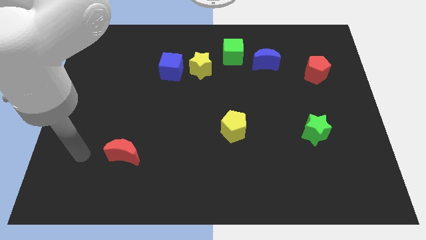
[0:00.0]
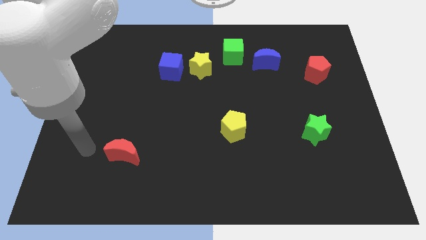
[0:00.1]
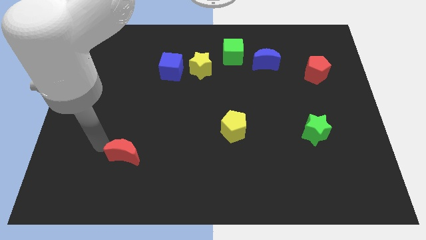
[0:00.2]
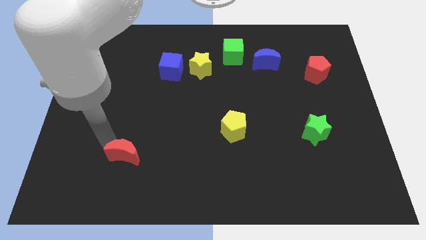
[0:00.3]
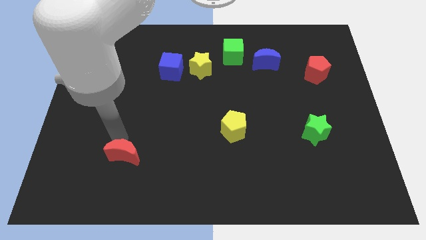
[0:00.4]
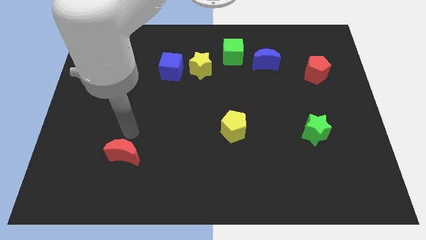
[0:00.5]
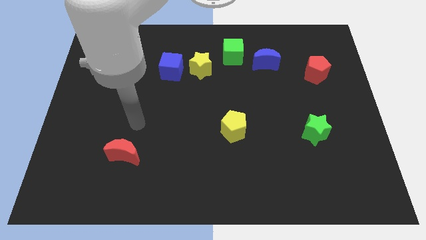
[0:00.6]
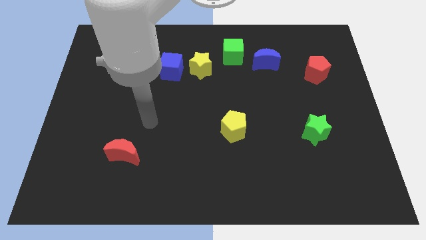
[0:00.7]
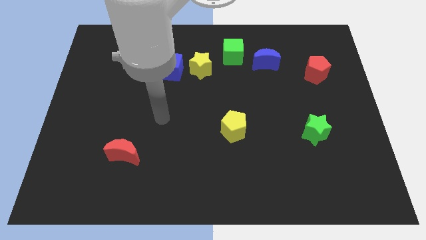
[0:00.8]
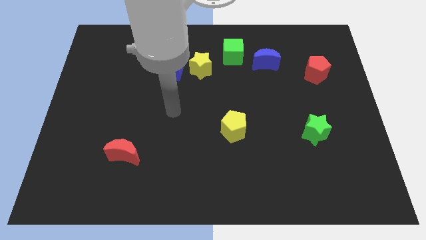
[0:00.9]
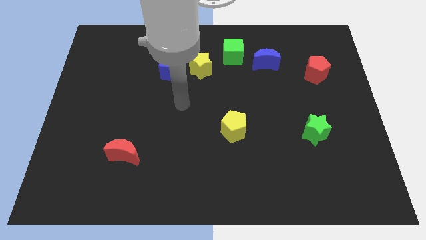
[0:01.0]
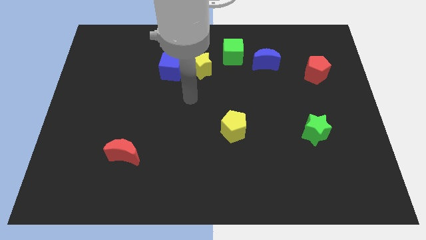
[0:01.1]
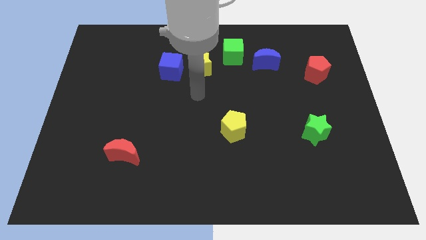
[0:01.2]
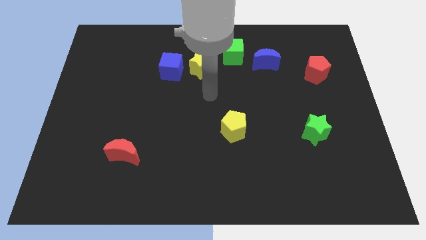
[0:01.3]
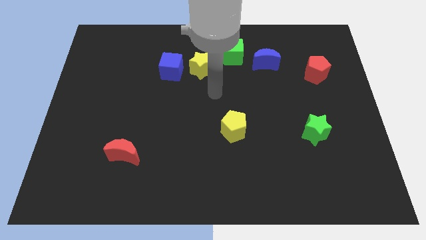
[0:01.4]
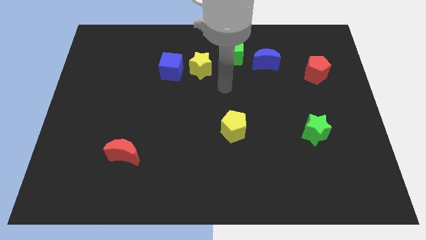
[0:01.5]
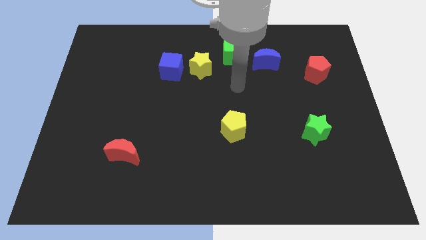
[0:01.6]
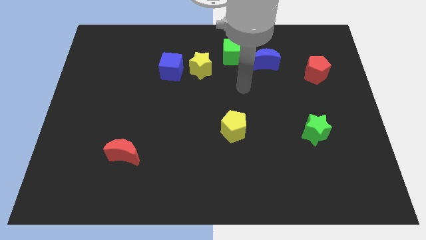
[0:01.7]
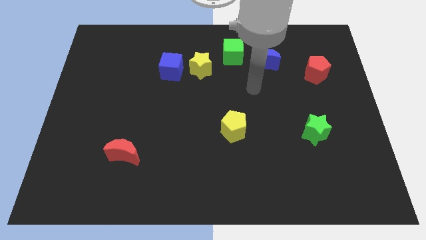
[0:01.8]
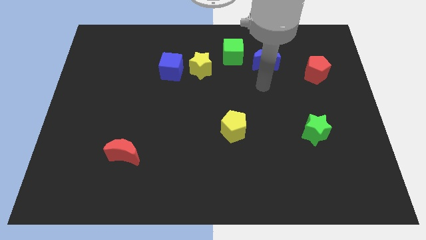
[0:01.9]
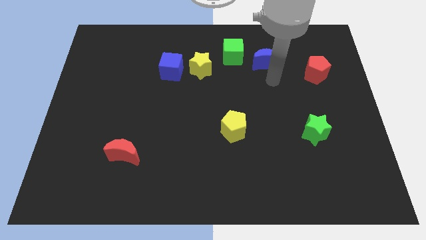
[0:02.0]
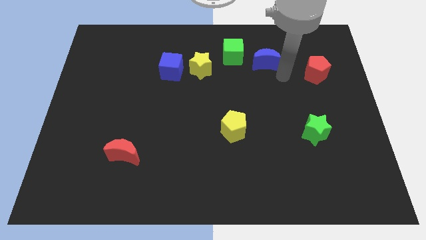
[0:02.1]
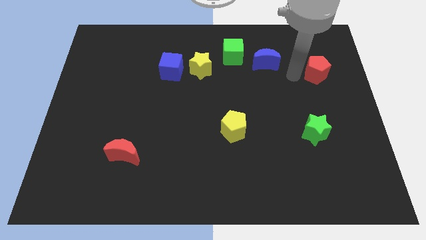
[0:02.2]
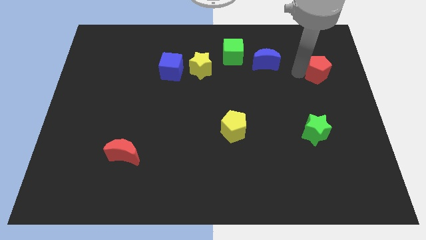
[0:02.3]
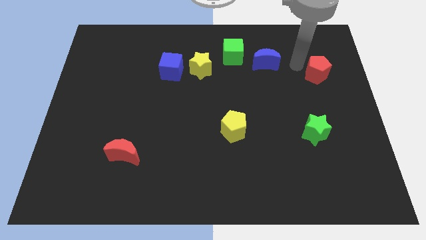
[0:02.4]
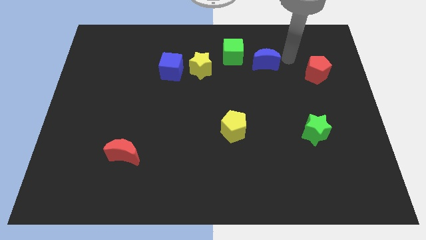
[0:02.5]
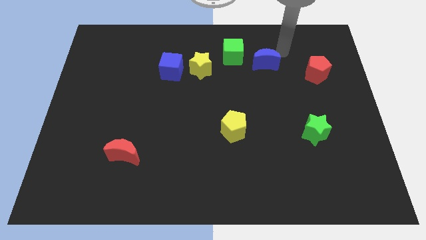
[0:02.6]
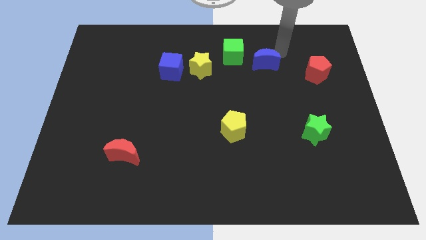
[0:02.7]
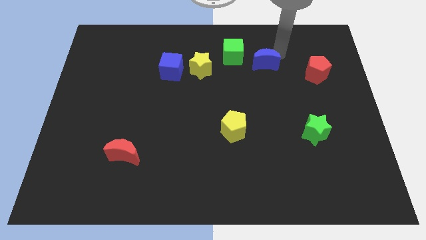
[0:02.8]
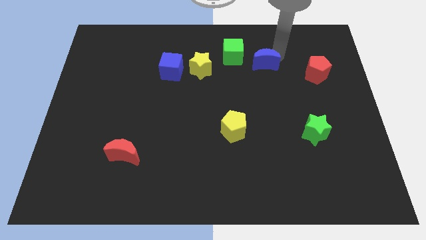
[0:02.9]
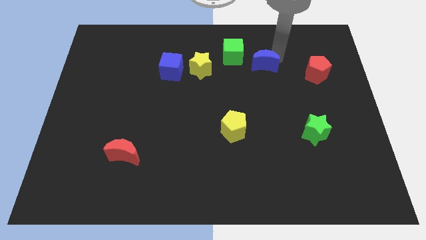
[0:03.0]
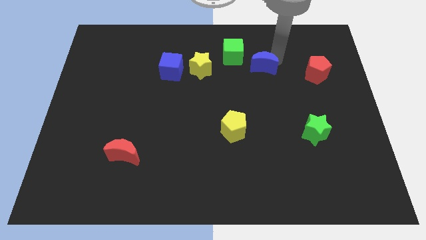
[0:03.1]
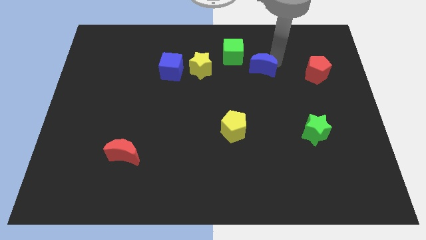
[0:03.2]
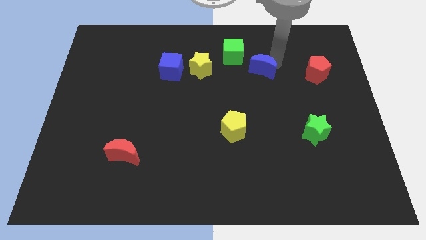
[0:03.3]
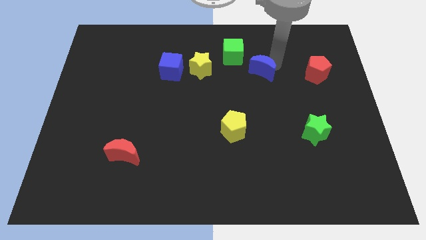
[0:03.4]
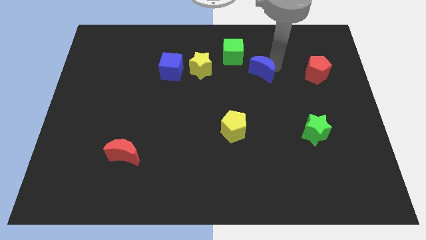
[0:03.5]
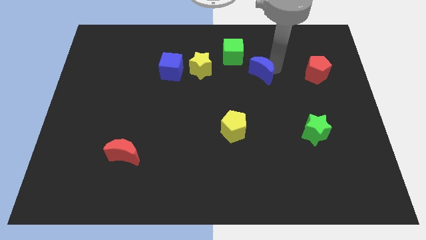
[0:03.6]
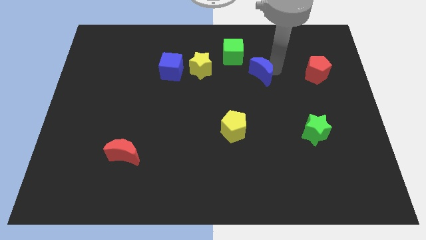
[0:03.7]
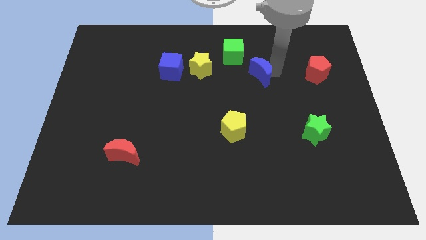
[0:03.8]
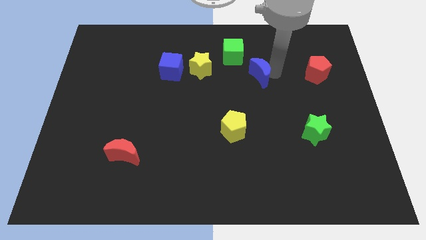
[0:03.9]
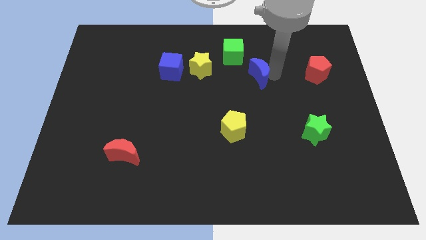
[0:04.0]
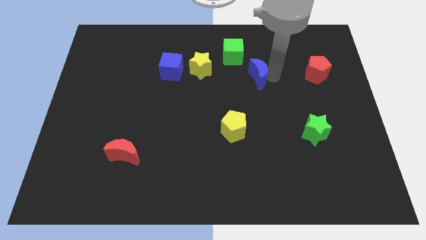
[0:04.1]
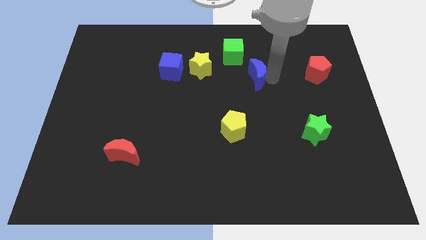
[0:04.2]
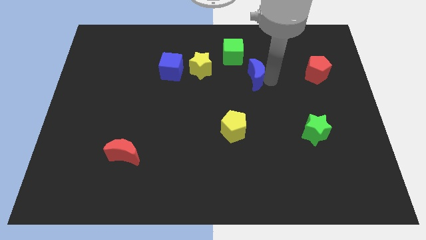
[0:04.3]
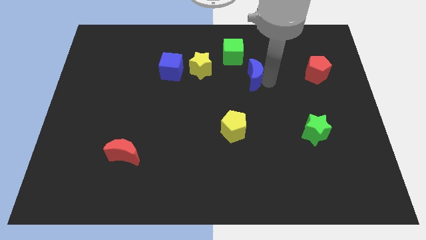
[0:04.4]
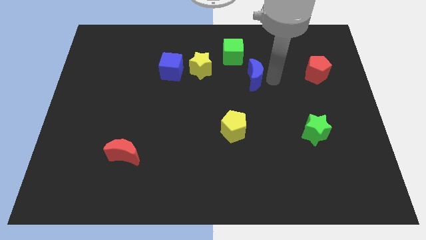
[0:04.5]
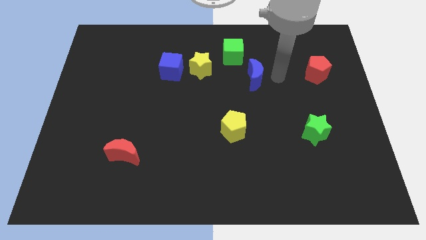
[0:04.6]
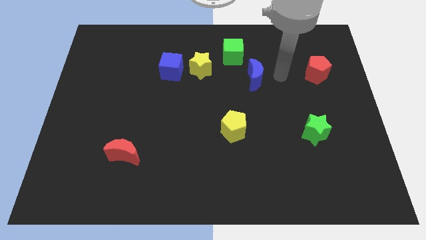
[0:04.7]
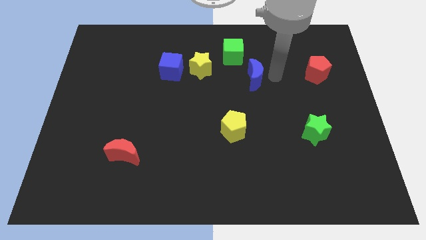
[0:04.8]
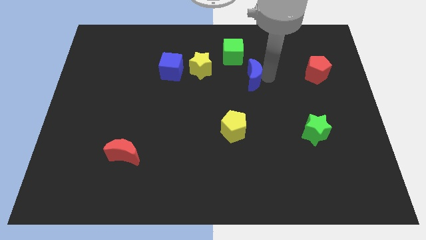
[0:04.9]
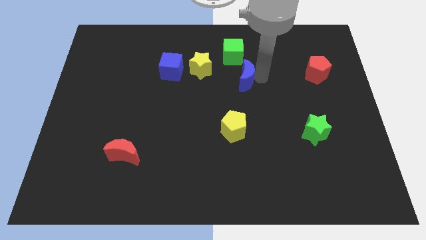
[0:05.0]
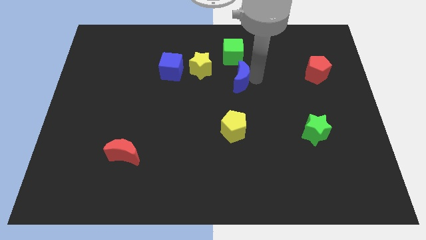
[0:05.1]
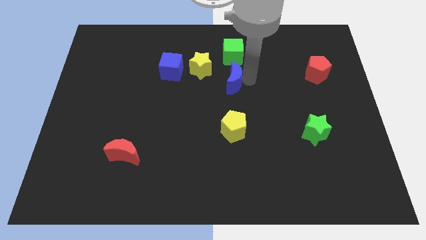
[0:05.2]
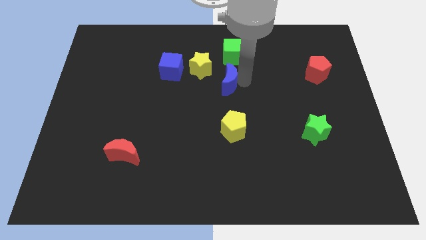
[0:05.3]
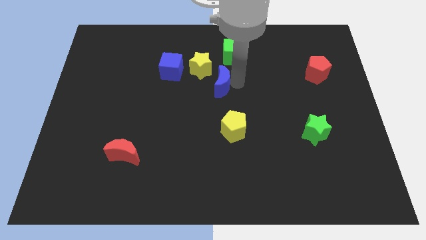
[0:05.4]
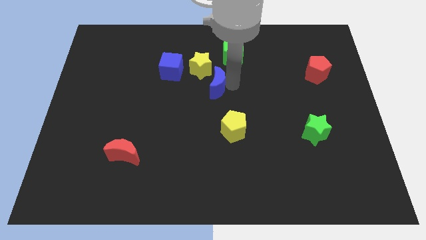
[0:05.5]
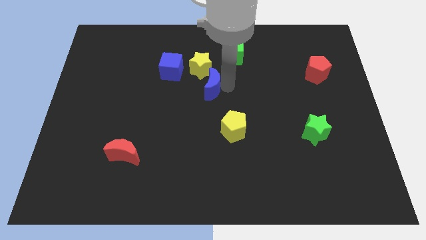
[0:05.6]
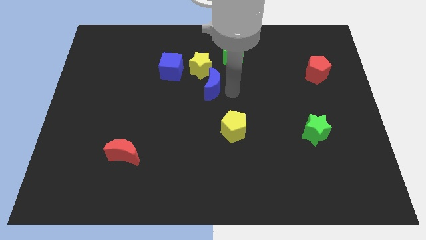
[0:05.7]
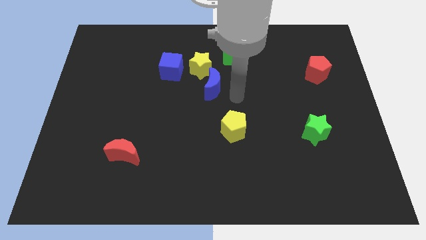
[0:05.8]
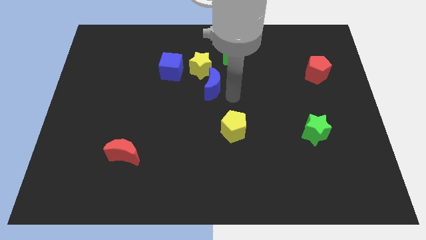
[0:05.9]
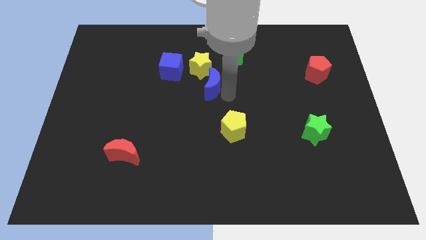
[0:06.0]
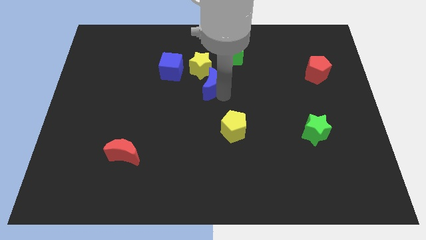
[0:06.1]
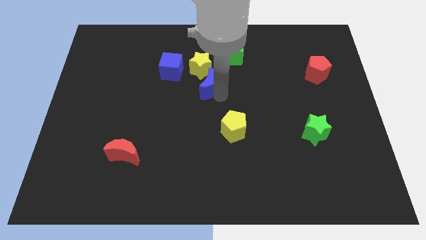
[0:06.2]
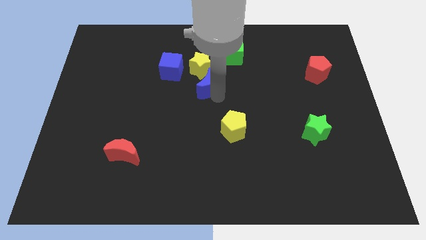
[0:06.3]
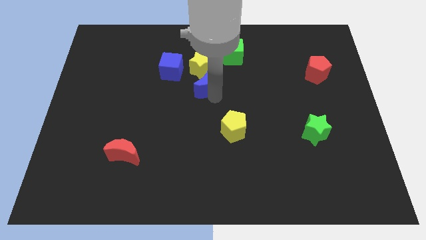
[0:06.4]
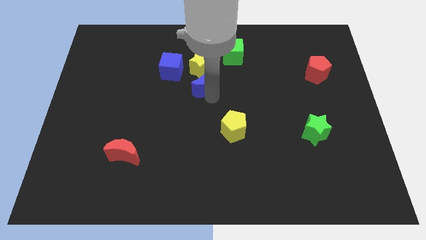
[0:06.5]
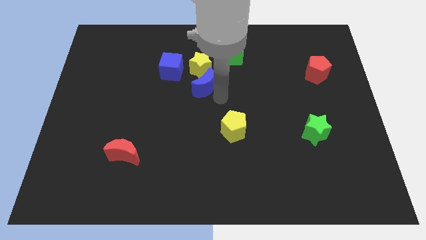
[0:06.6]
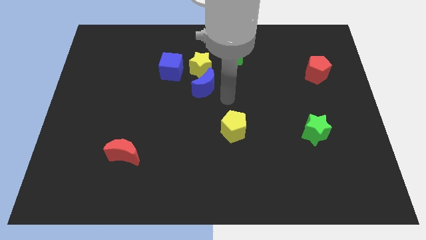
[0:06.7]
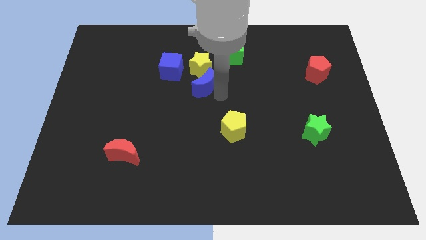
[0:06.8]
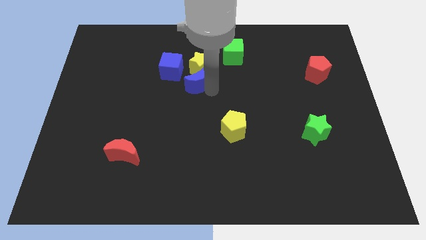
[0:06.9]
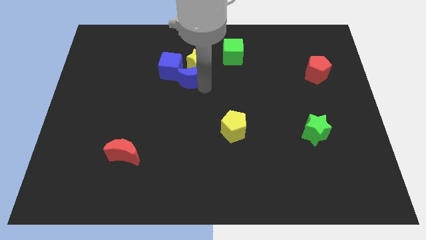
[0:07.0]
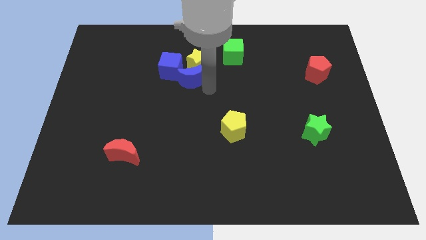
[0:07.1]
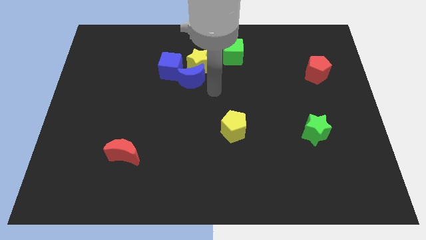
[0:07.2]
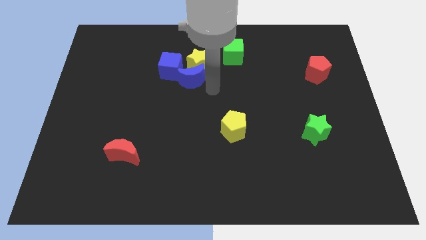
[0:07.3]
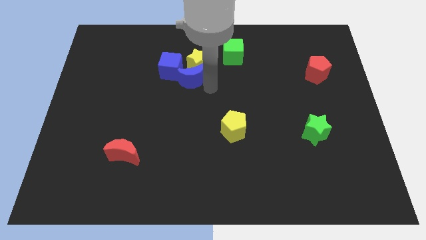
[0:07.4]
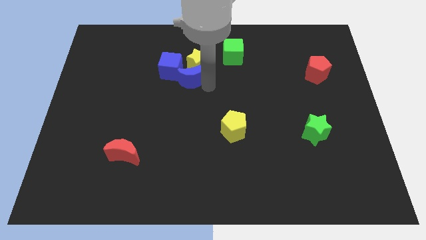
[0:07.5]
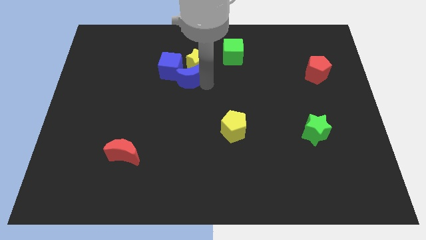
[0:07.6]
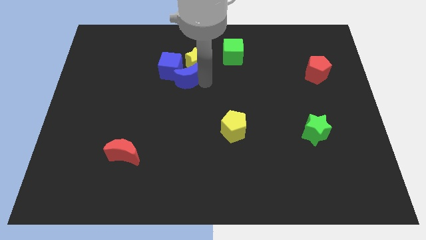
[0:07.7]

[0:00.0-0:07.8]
slide the blue moon towards the blue cube

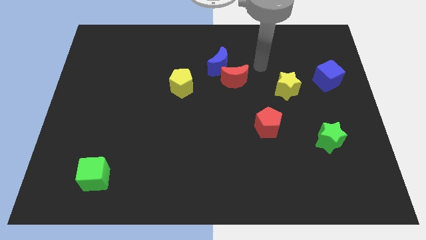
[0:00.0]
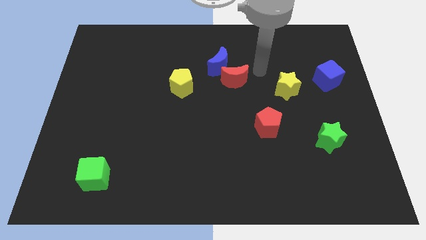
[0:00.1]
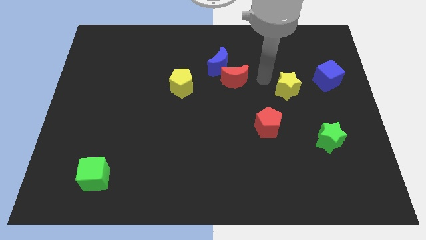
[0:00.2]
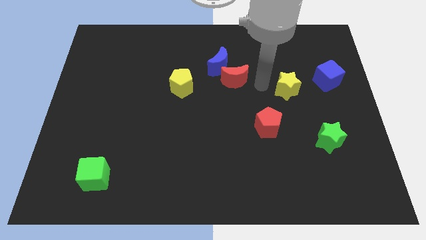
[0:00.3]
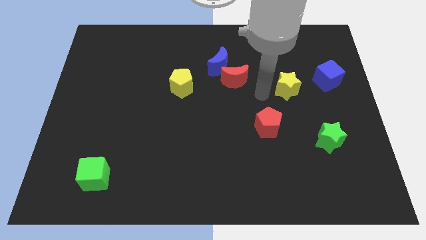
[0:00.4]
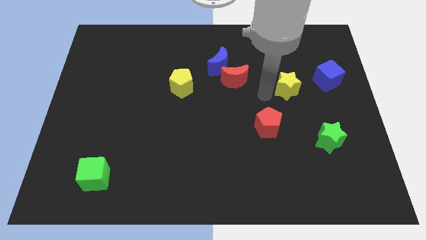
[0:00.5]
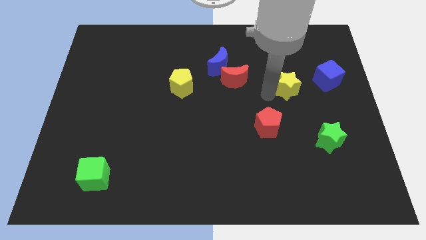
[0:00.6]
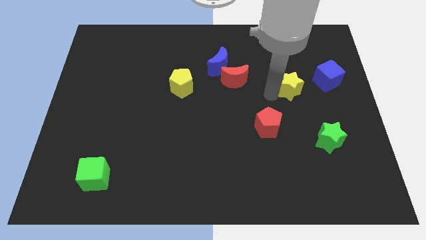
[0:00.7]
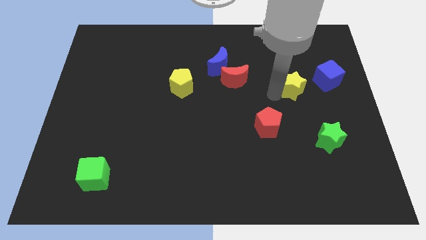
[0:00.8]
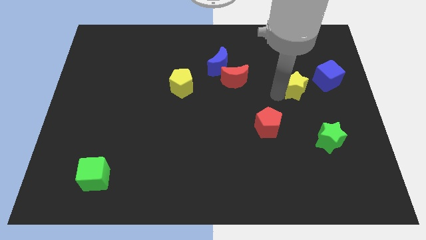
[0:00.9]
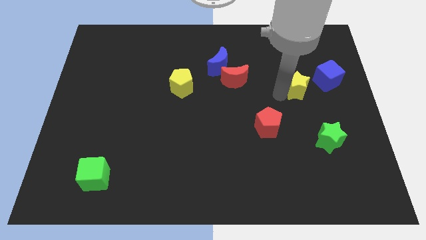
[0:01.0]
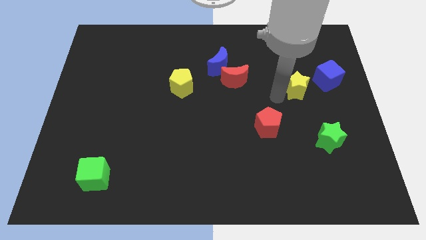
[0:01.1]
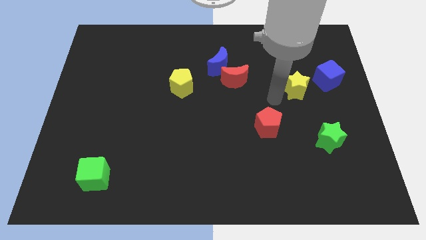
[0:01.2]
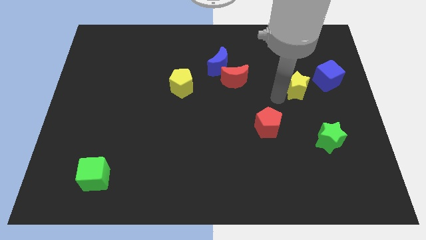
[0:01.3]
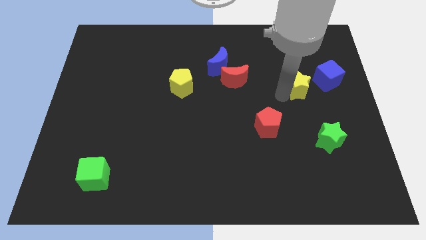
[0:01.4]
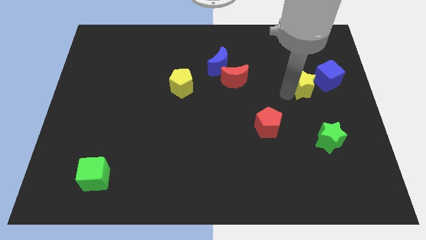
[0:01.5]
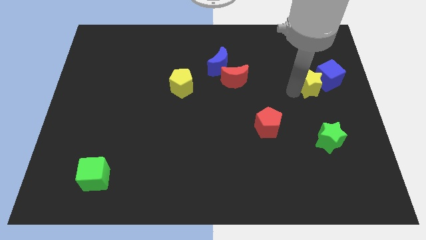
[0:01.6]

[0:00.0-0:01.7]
slide the yellow star close to the blue cube
